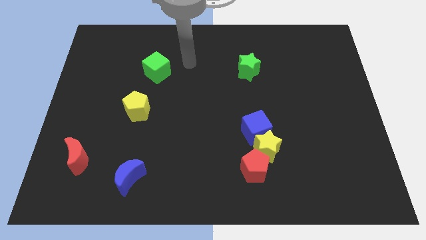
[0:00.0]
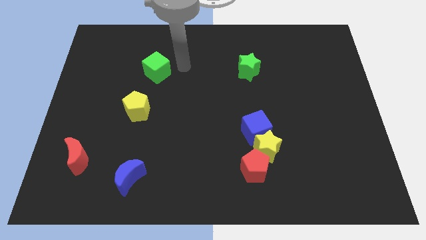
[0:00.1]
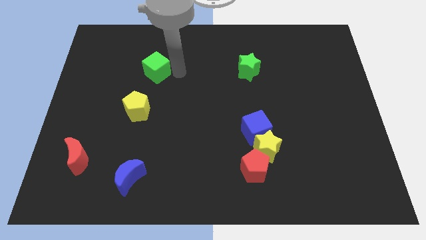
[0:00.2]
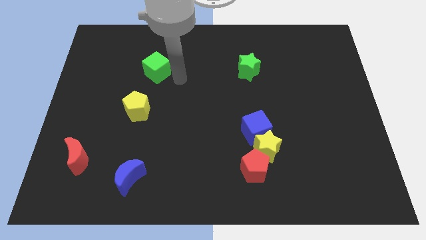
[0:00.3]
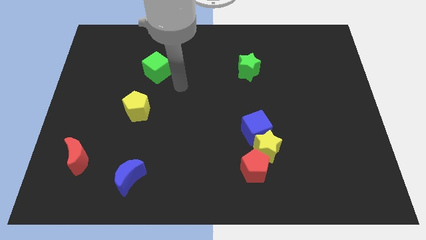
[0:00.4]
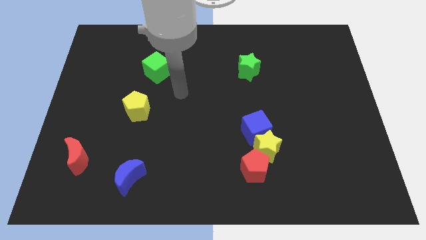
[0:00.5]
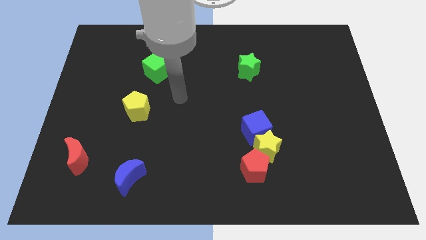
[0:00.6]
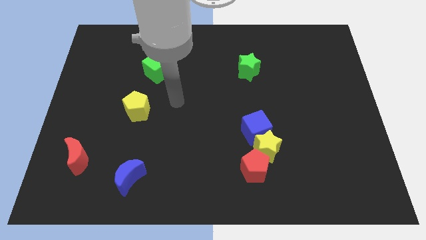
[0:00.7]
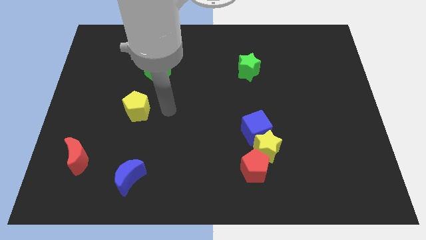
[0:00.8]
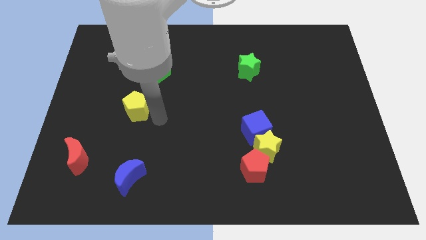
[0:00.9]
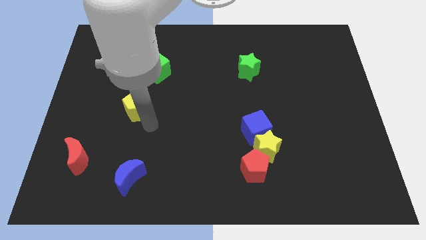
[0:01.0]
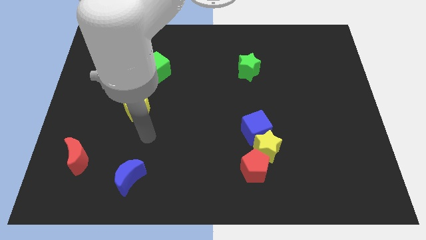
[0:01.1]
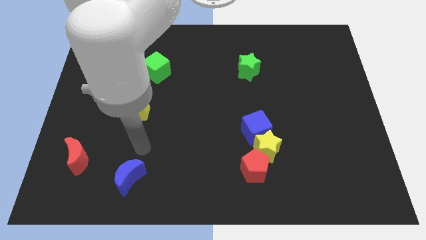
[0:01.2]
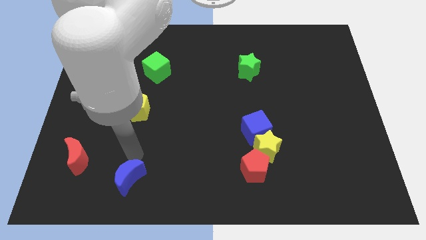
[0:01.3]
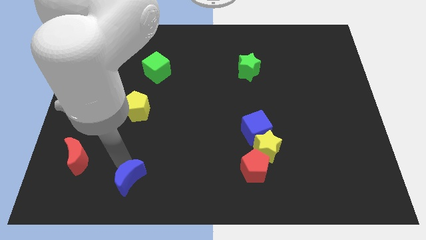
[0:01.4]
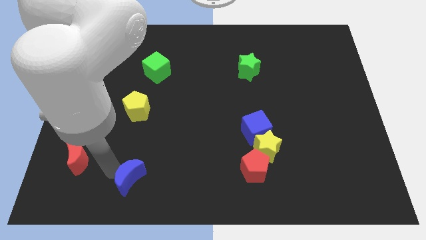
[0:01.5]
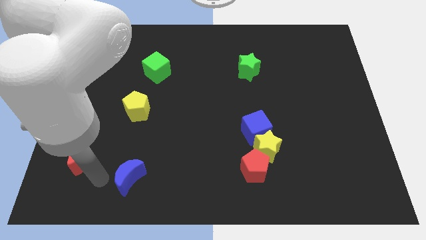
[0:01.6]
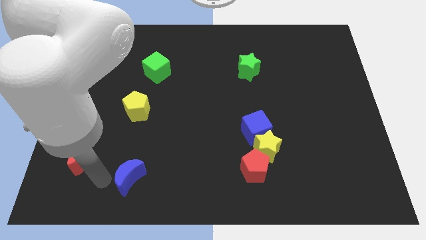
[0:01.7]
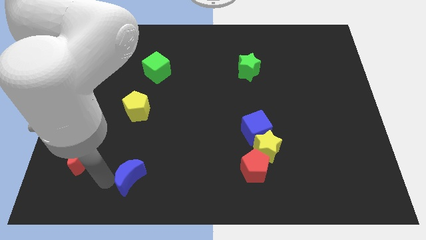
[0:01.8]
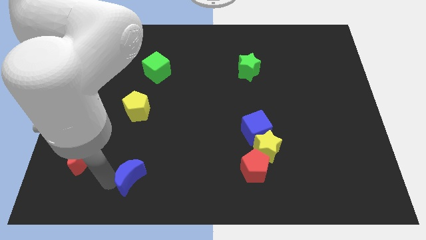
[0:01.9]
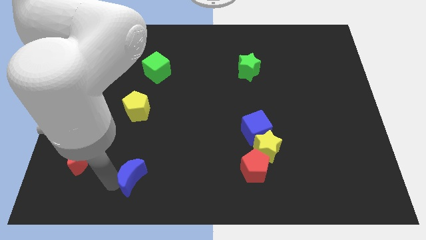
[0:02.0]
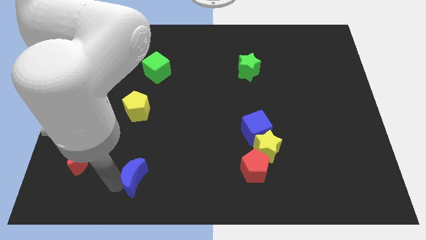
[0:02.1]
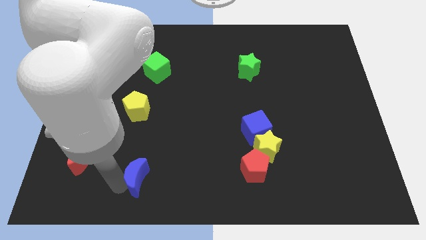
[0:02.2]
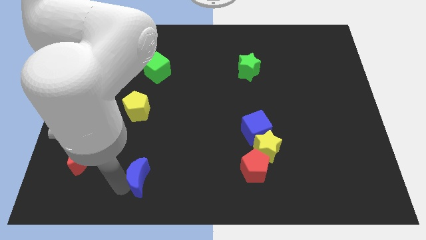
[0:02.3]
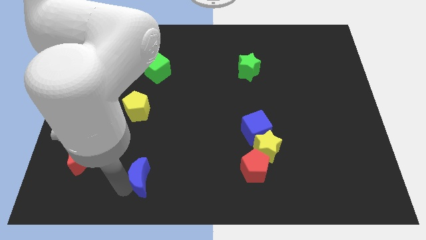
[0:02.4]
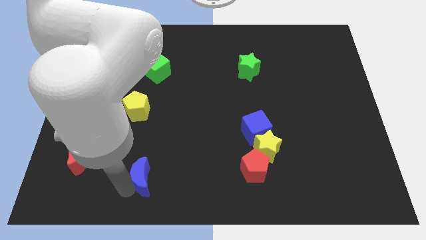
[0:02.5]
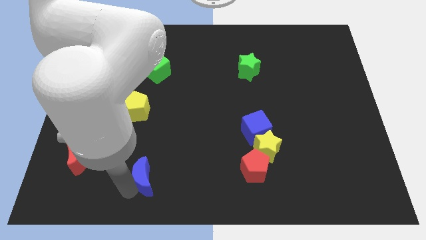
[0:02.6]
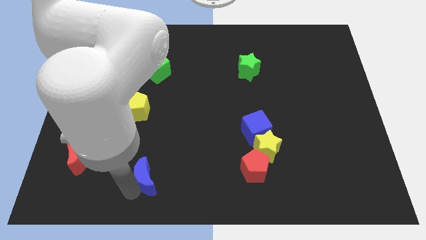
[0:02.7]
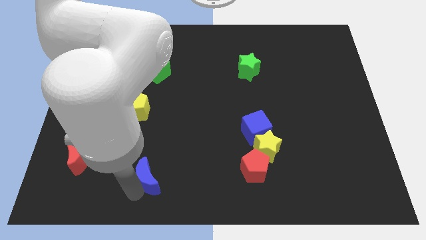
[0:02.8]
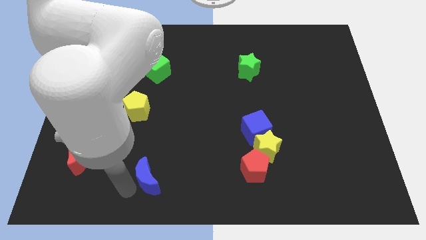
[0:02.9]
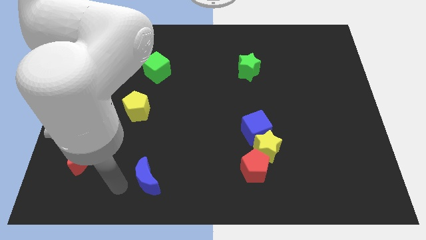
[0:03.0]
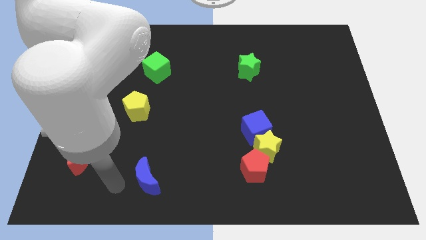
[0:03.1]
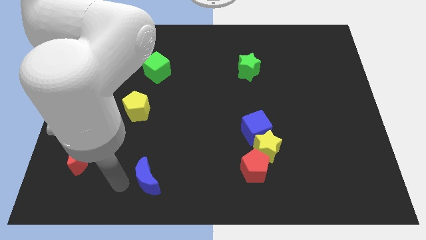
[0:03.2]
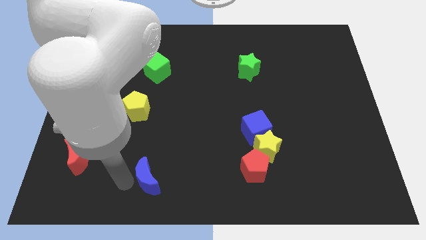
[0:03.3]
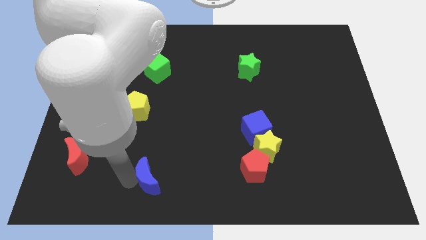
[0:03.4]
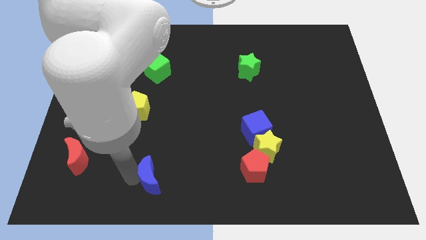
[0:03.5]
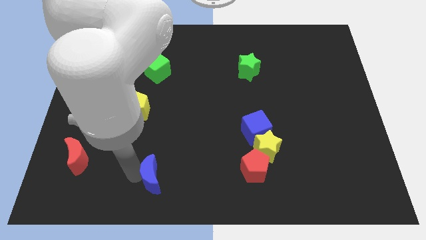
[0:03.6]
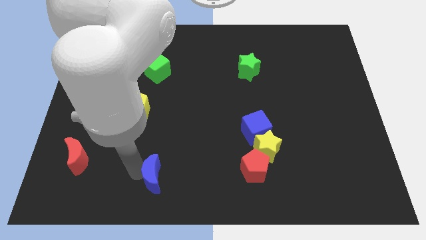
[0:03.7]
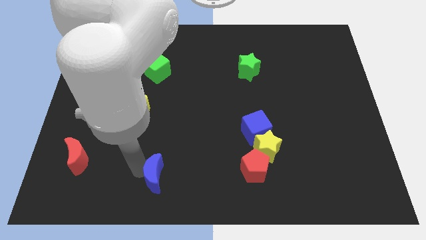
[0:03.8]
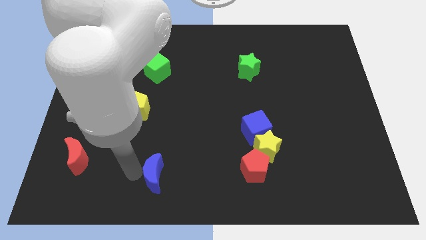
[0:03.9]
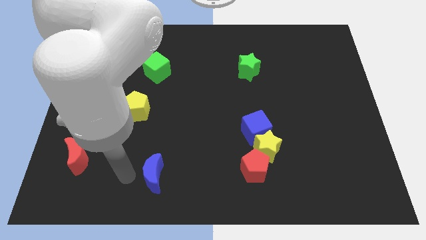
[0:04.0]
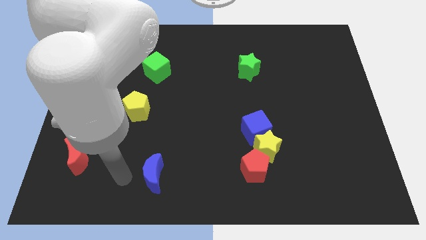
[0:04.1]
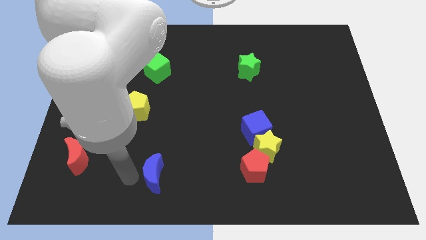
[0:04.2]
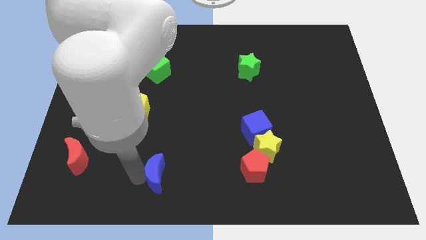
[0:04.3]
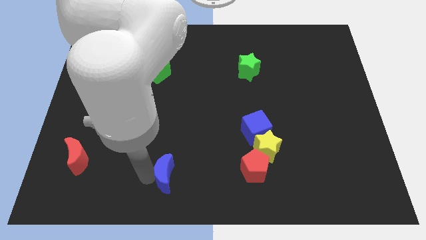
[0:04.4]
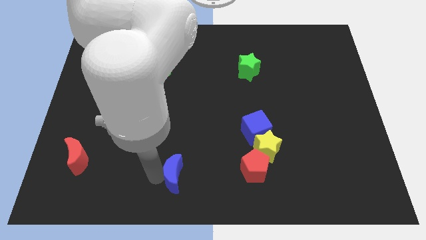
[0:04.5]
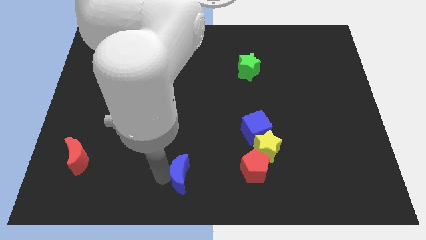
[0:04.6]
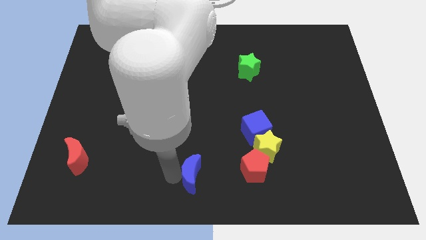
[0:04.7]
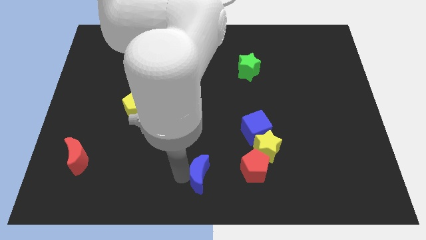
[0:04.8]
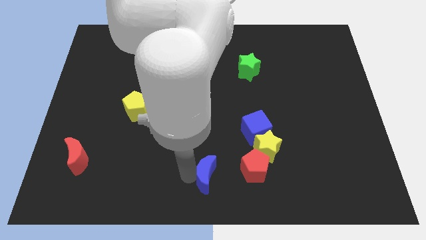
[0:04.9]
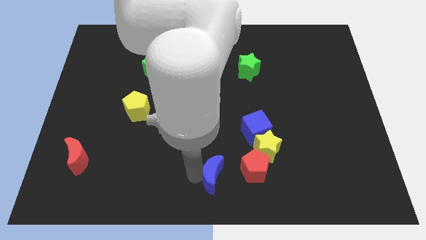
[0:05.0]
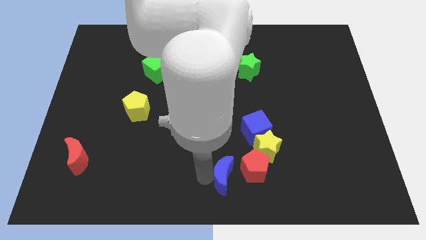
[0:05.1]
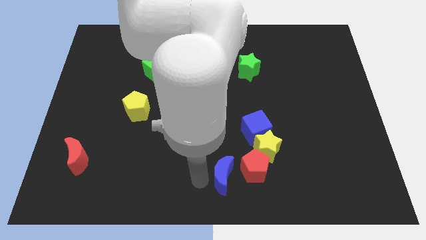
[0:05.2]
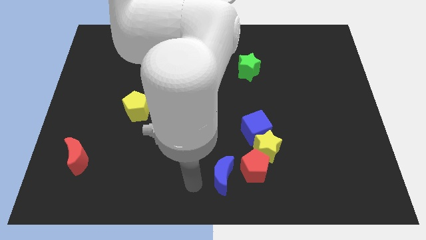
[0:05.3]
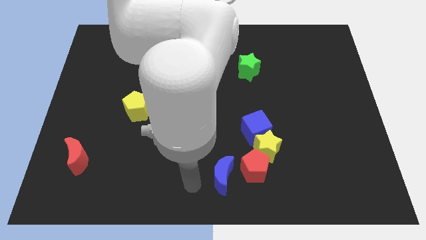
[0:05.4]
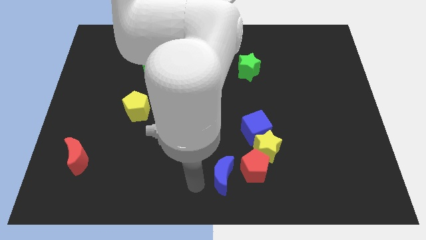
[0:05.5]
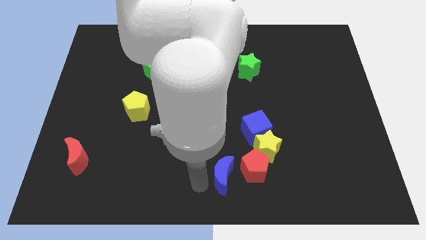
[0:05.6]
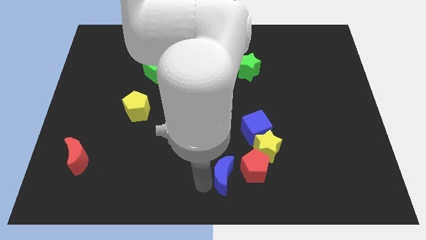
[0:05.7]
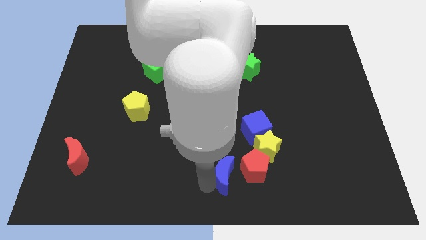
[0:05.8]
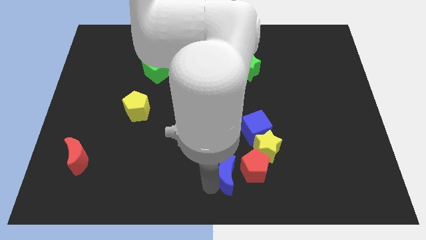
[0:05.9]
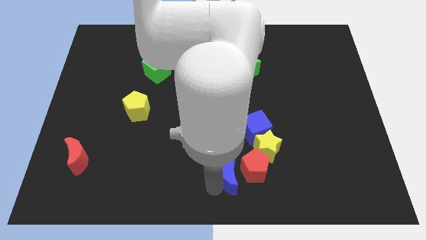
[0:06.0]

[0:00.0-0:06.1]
slide the blue moon to the red pentagon

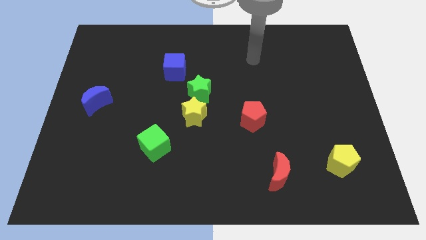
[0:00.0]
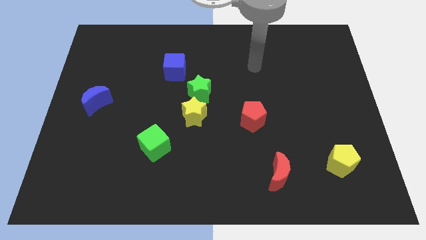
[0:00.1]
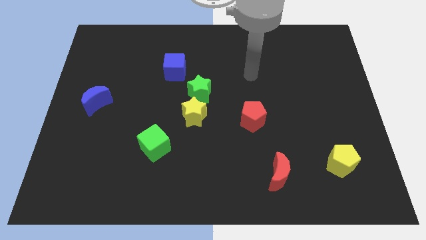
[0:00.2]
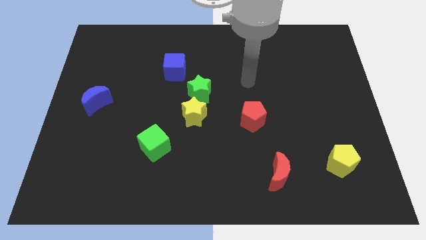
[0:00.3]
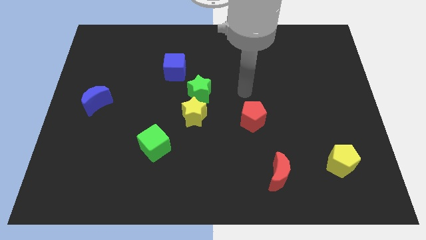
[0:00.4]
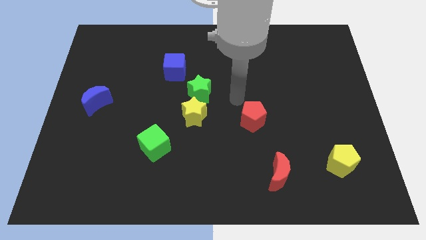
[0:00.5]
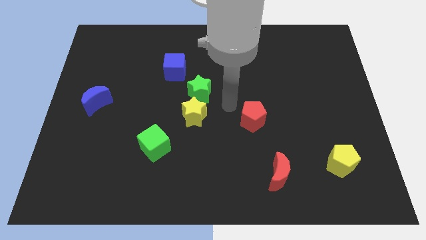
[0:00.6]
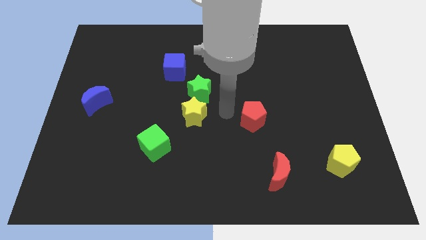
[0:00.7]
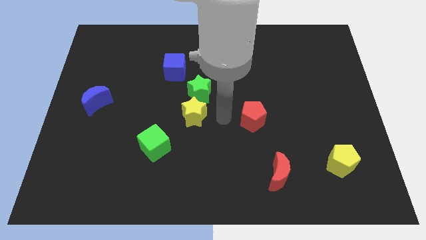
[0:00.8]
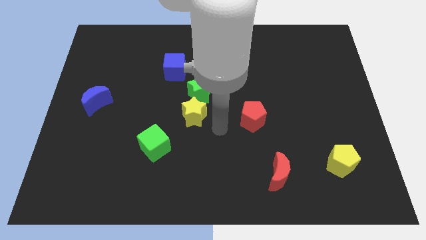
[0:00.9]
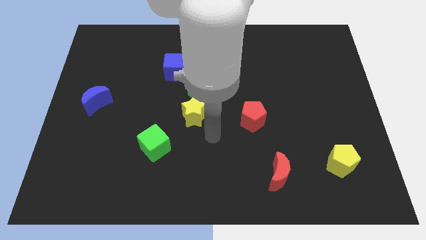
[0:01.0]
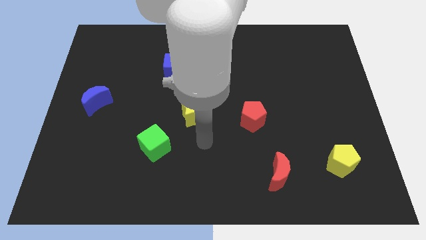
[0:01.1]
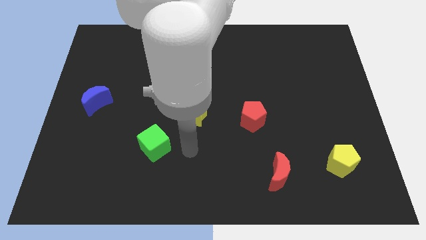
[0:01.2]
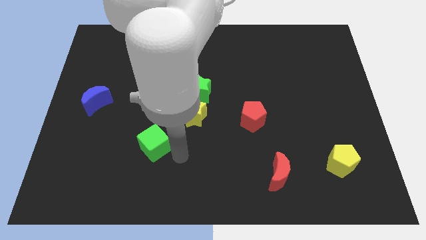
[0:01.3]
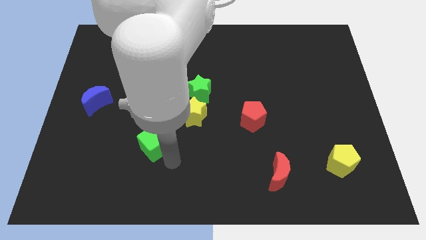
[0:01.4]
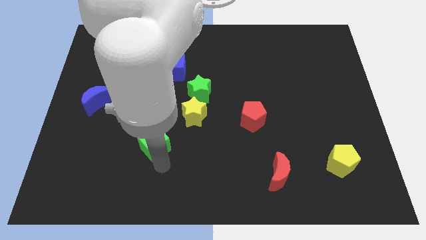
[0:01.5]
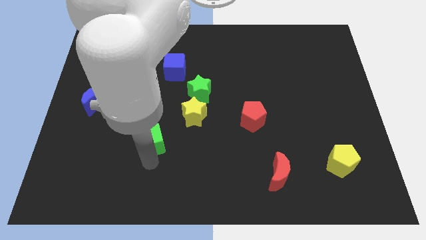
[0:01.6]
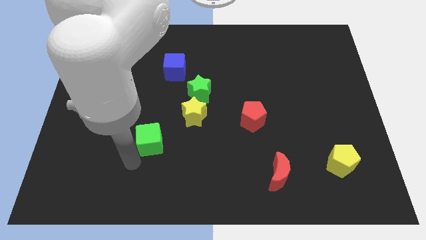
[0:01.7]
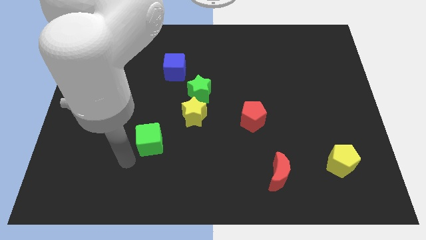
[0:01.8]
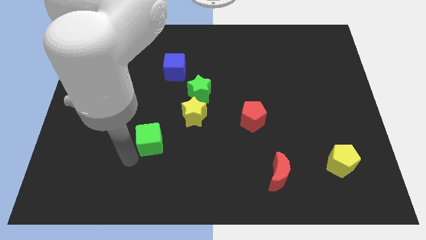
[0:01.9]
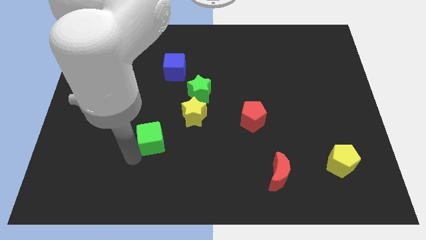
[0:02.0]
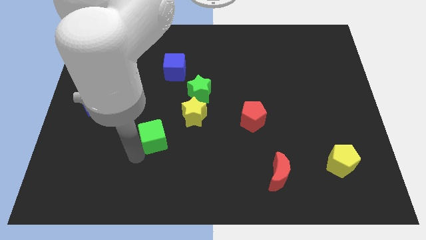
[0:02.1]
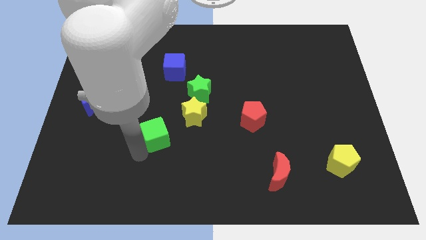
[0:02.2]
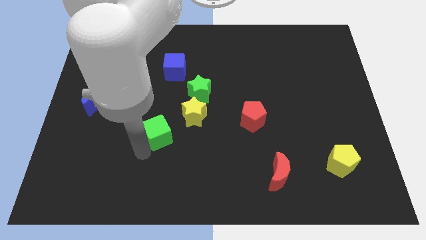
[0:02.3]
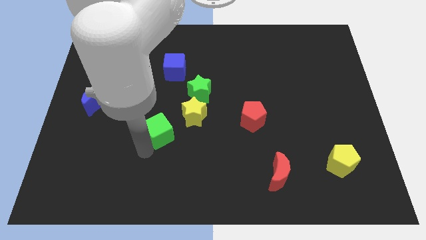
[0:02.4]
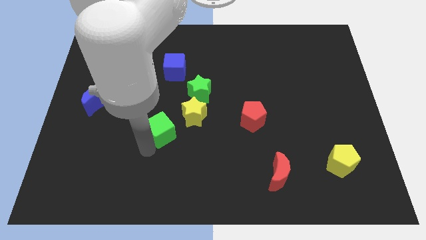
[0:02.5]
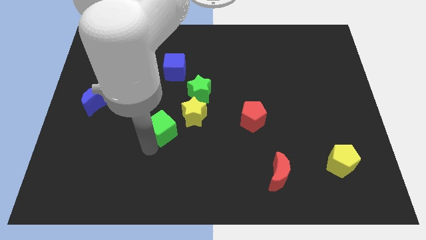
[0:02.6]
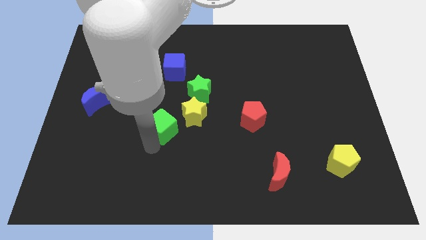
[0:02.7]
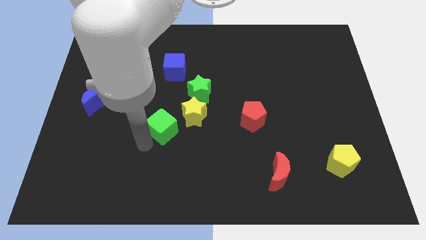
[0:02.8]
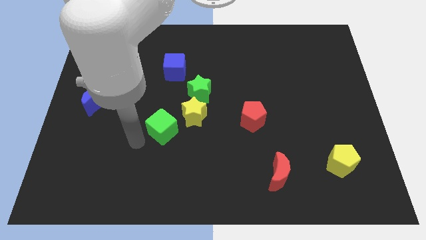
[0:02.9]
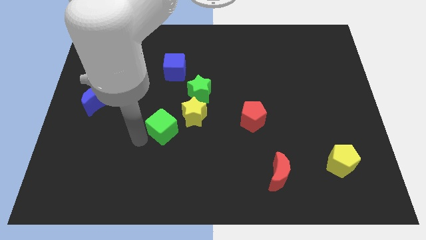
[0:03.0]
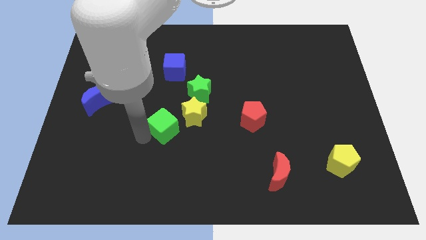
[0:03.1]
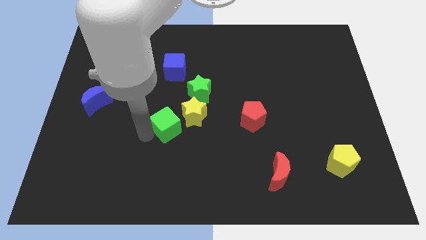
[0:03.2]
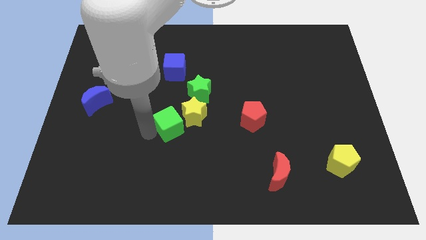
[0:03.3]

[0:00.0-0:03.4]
push the green cube towards the yellow star
